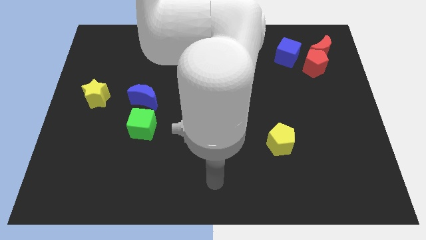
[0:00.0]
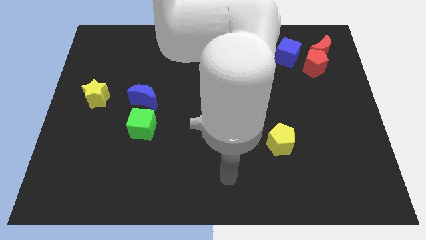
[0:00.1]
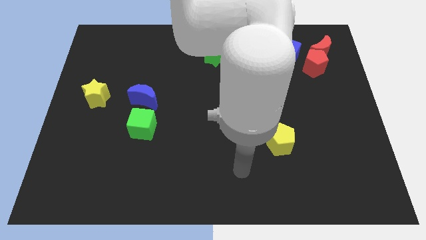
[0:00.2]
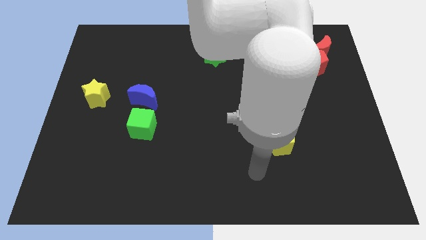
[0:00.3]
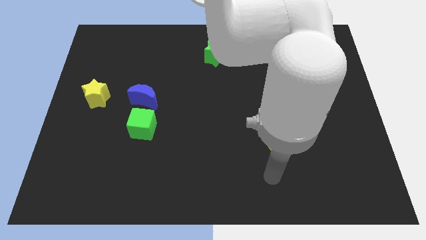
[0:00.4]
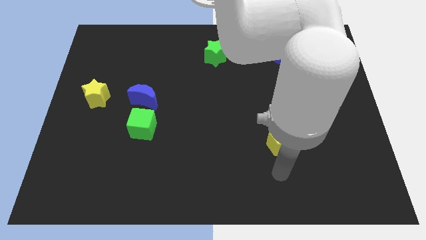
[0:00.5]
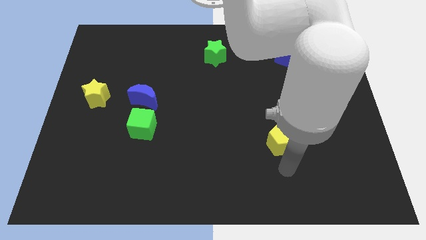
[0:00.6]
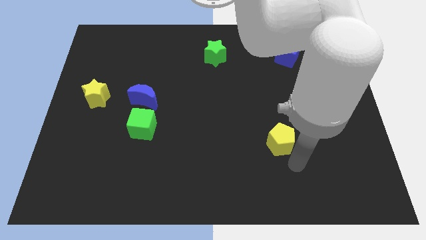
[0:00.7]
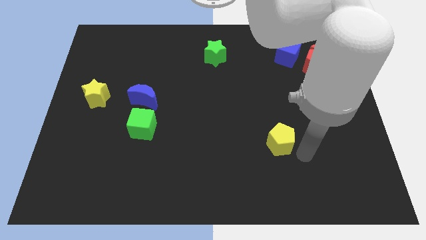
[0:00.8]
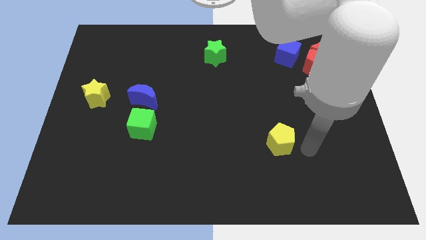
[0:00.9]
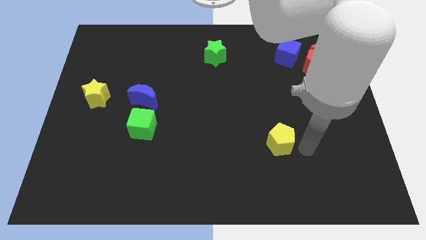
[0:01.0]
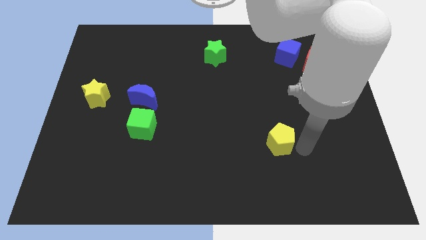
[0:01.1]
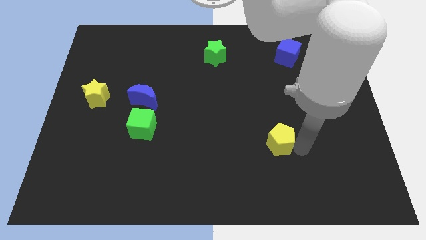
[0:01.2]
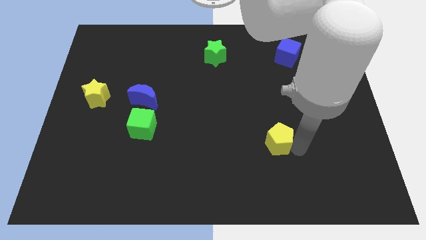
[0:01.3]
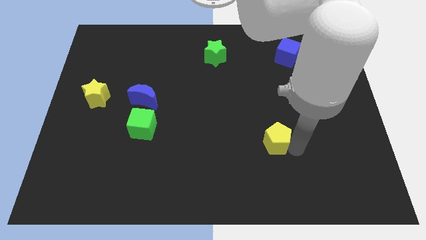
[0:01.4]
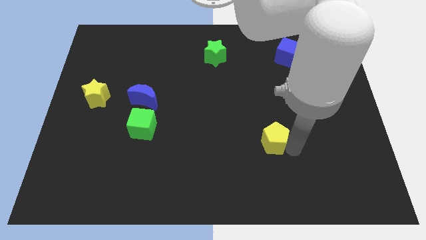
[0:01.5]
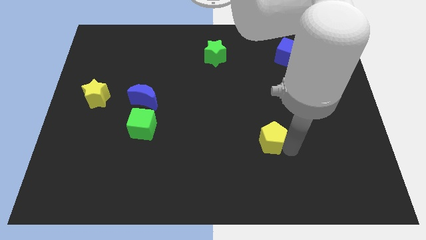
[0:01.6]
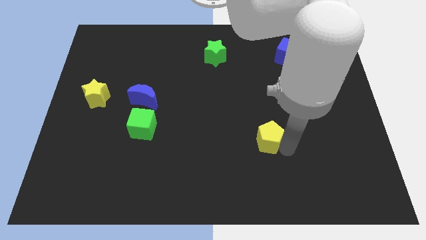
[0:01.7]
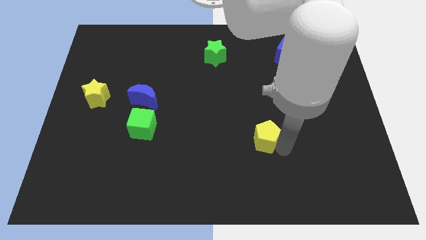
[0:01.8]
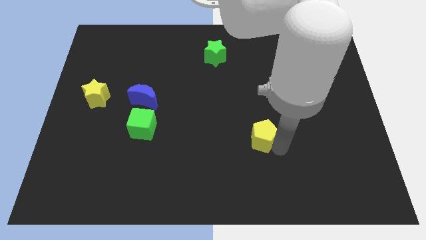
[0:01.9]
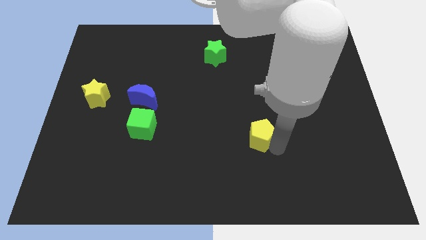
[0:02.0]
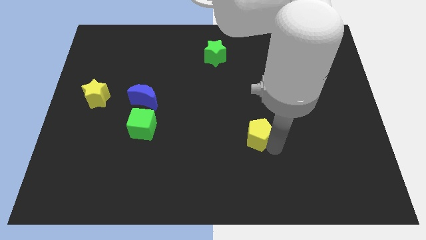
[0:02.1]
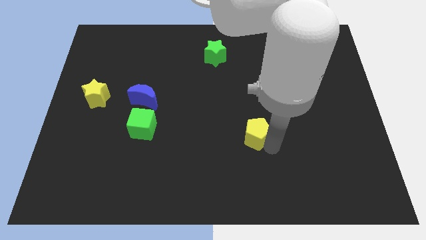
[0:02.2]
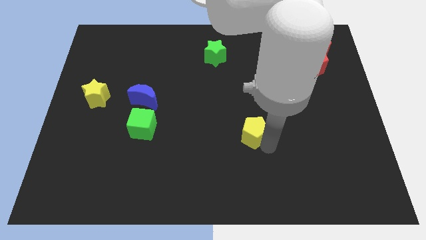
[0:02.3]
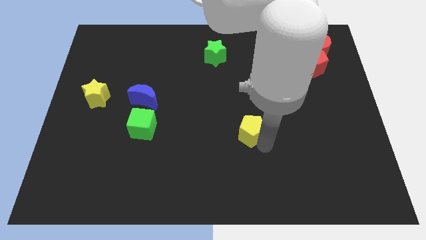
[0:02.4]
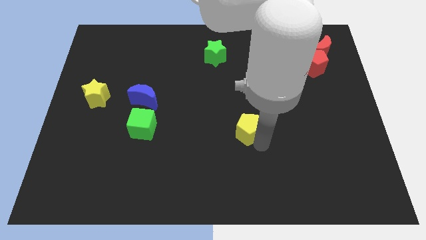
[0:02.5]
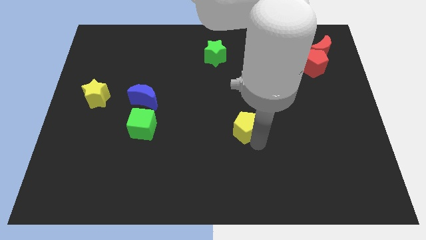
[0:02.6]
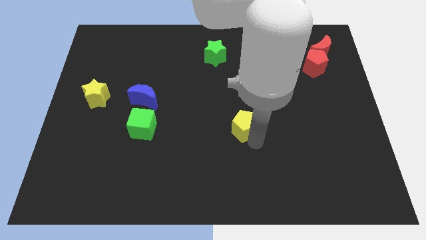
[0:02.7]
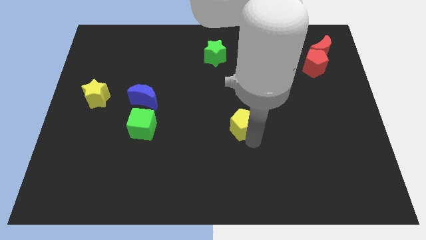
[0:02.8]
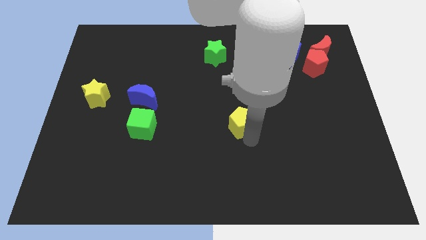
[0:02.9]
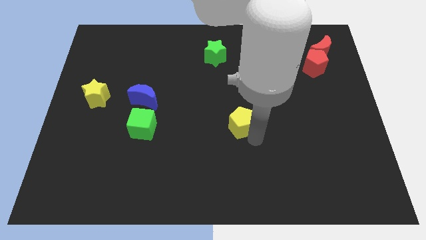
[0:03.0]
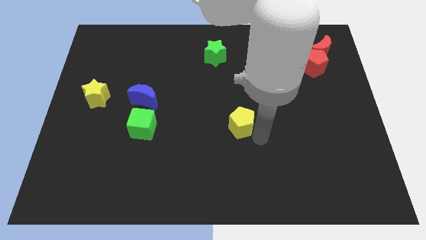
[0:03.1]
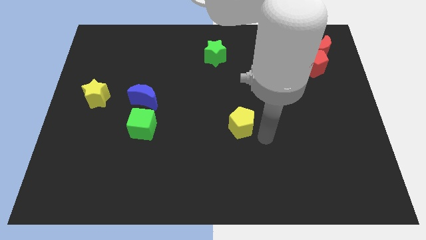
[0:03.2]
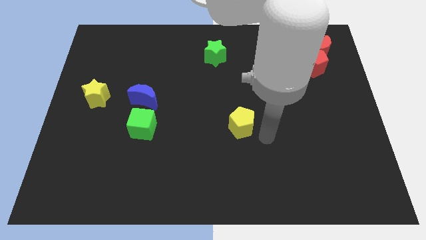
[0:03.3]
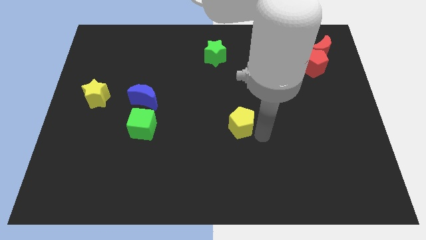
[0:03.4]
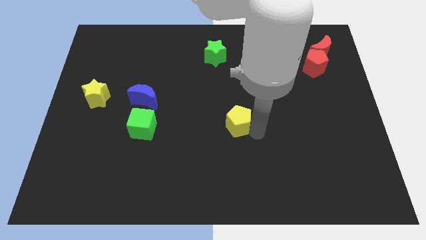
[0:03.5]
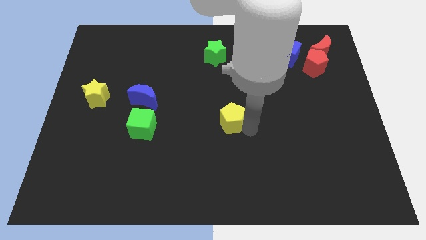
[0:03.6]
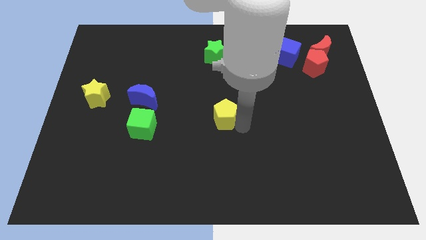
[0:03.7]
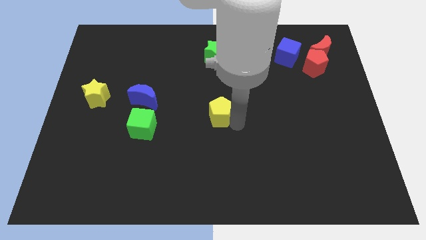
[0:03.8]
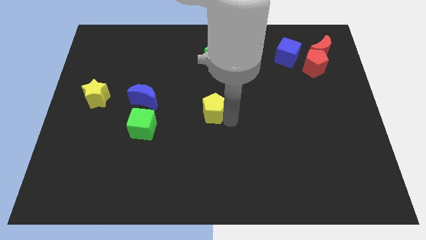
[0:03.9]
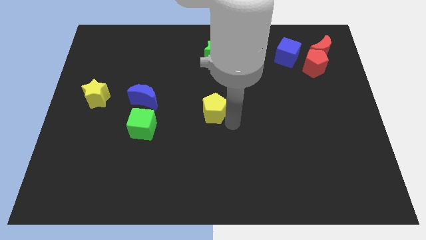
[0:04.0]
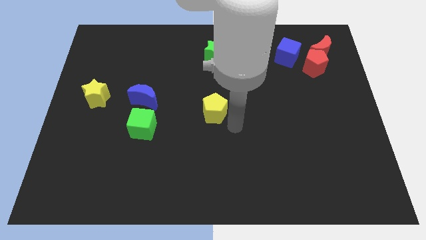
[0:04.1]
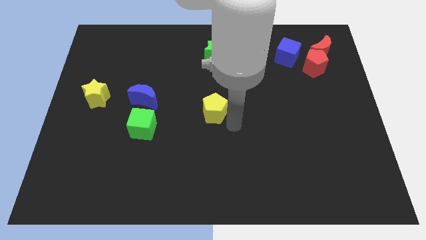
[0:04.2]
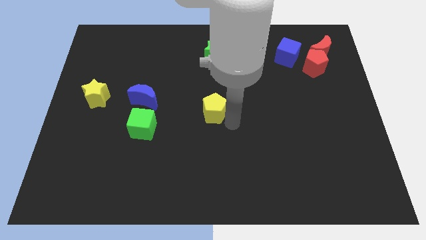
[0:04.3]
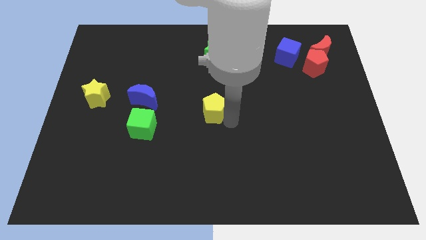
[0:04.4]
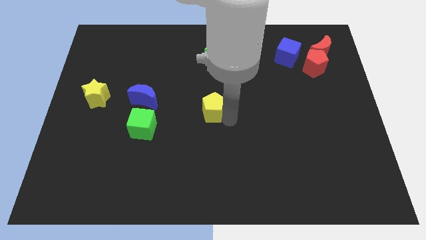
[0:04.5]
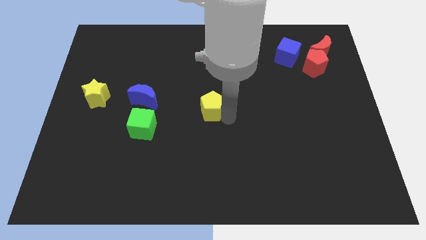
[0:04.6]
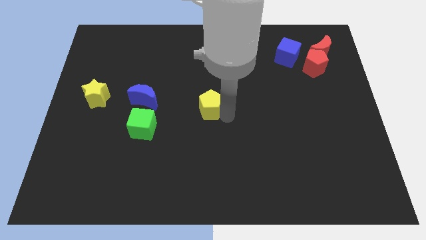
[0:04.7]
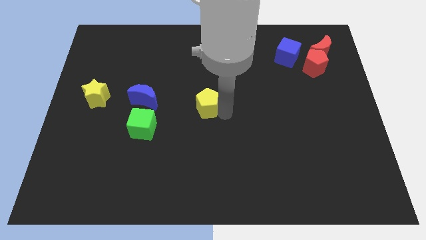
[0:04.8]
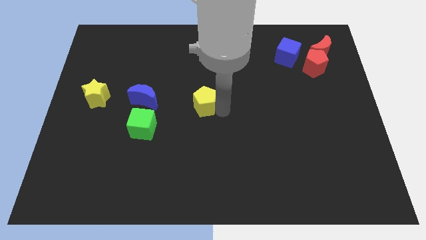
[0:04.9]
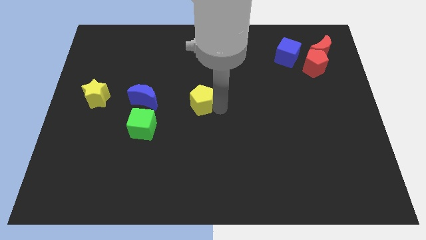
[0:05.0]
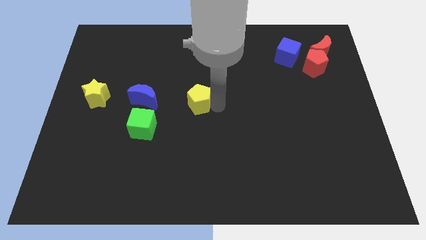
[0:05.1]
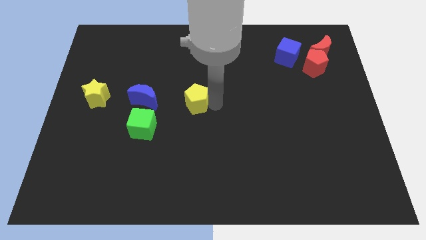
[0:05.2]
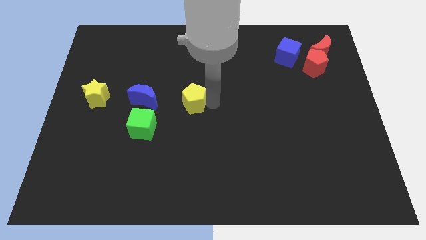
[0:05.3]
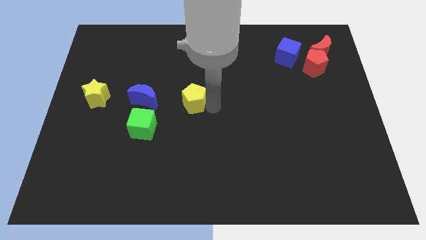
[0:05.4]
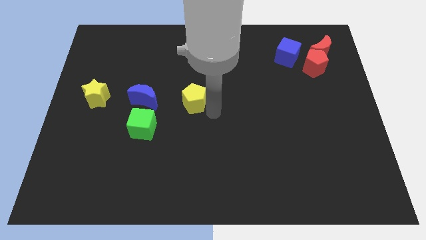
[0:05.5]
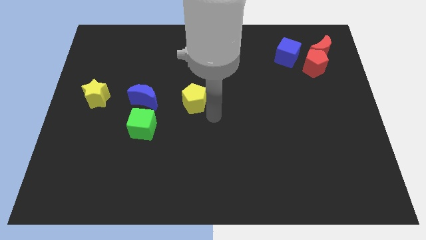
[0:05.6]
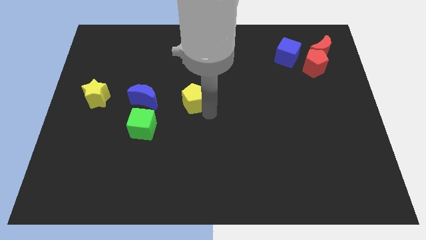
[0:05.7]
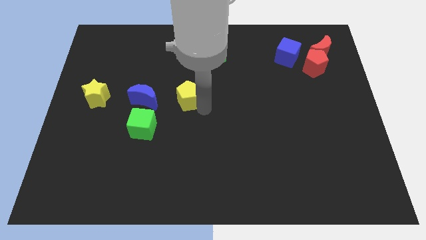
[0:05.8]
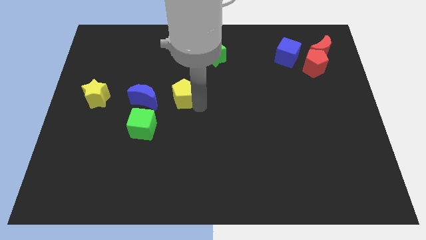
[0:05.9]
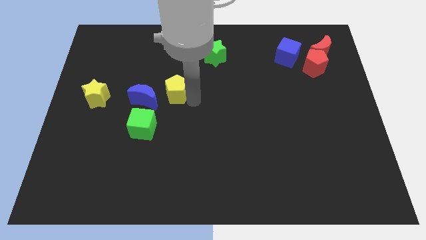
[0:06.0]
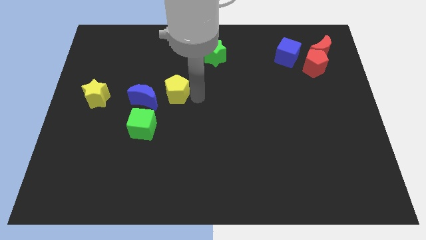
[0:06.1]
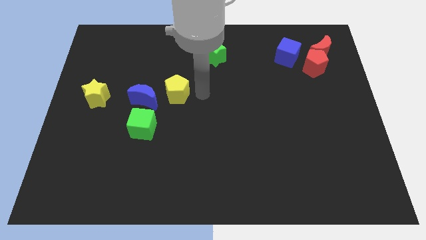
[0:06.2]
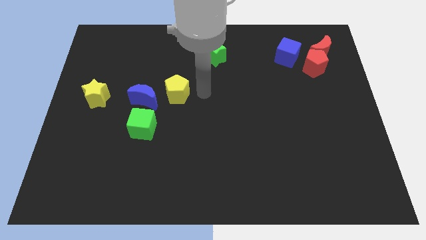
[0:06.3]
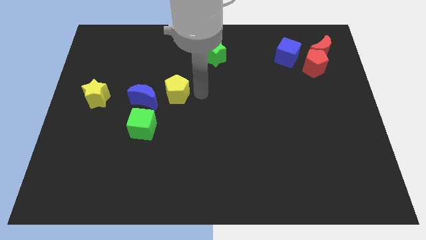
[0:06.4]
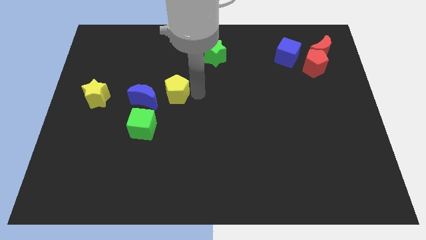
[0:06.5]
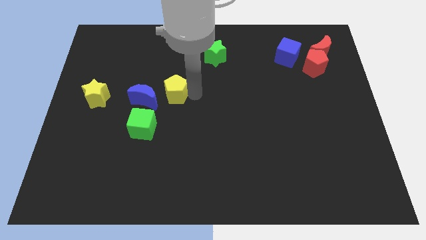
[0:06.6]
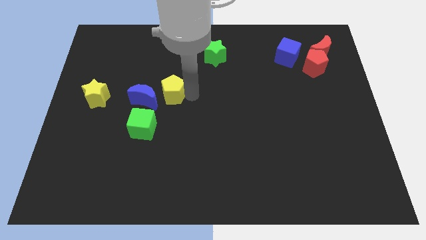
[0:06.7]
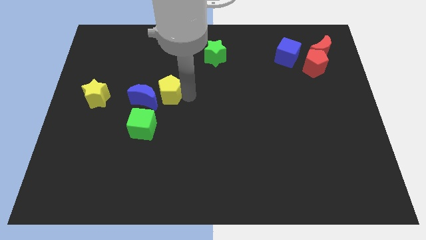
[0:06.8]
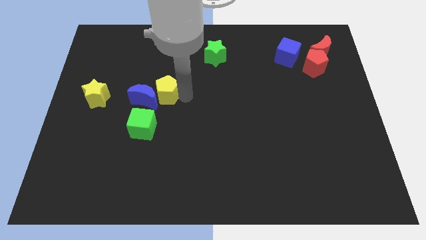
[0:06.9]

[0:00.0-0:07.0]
slide the yellow pentagon above the green cube
